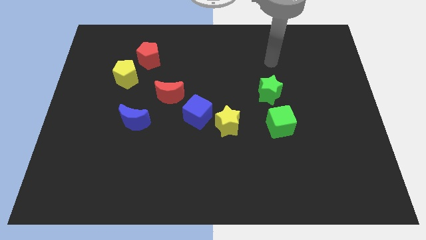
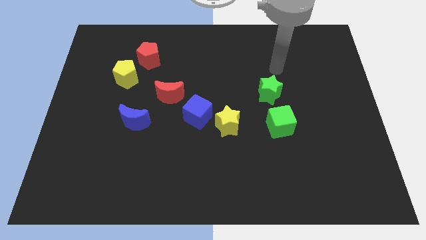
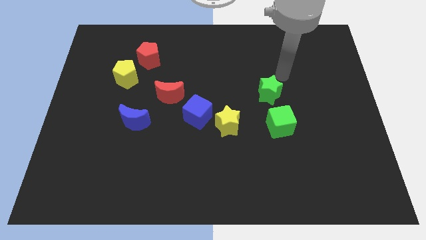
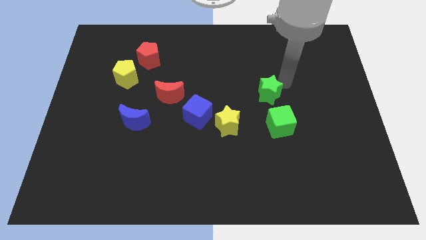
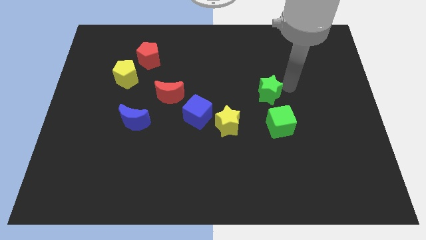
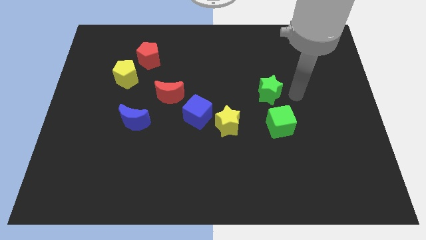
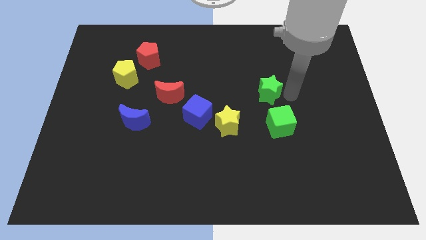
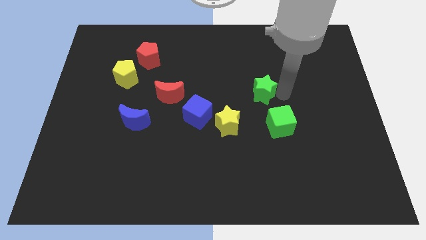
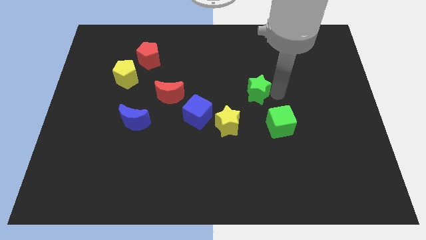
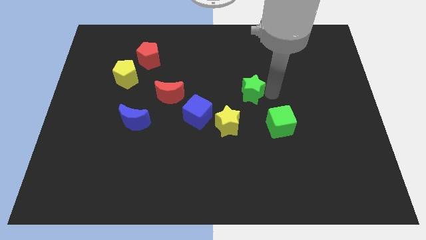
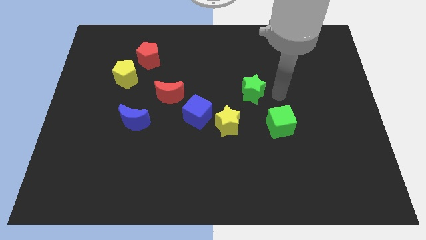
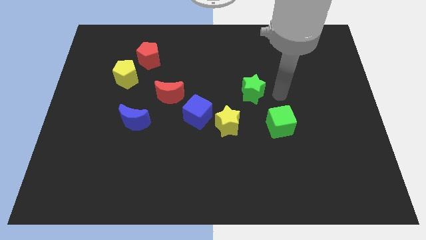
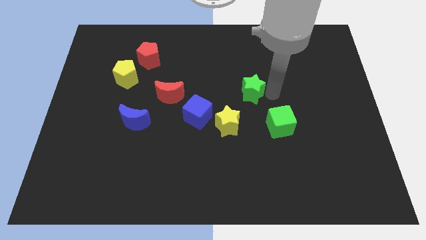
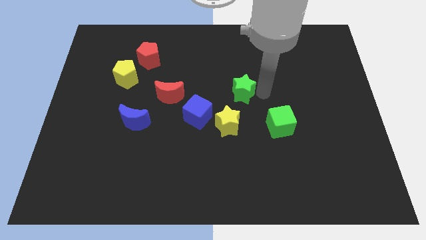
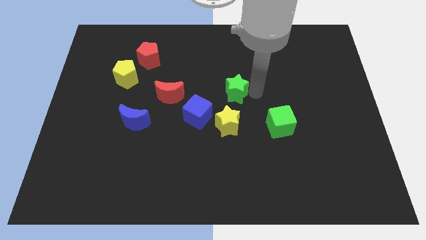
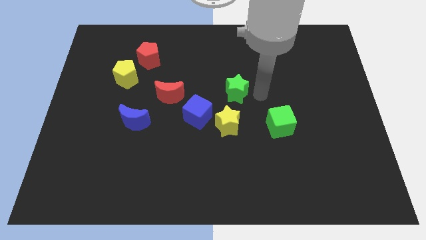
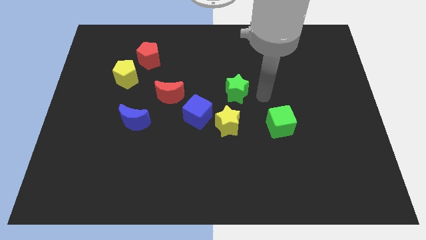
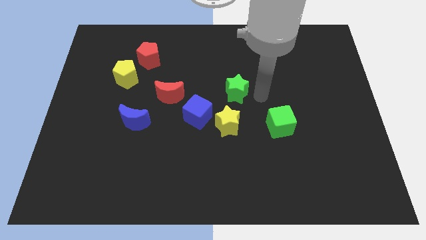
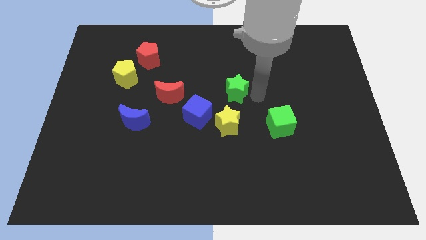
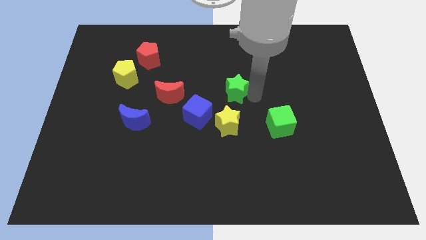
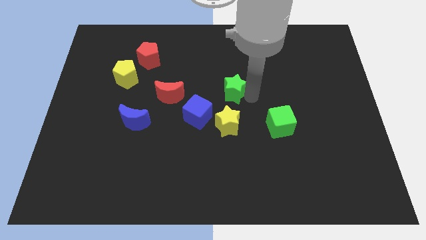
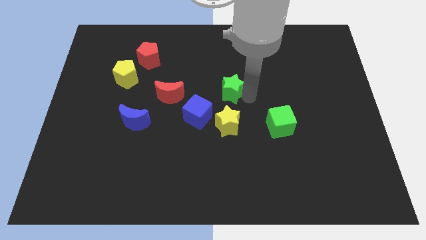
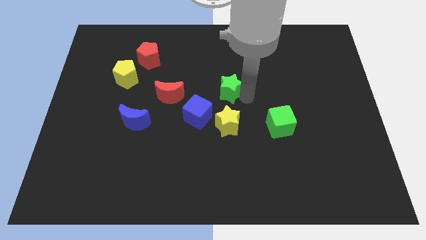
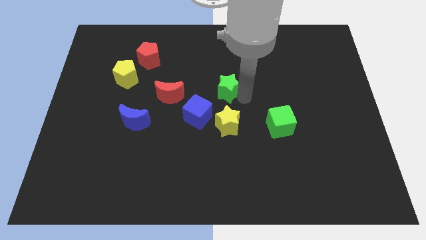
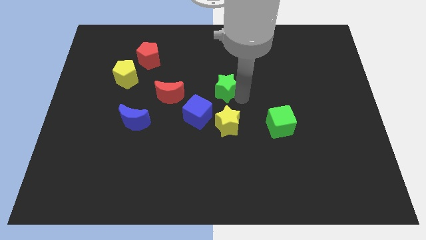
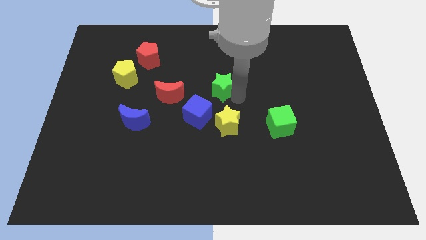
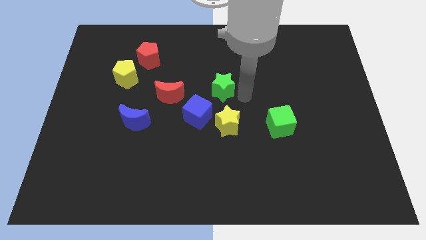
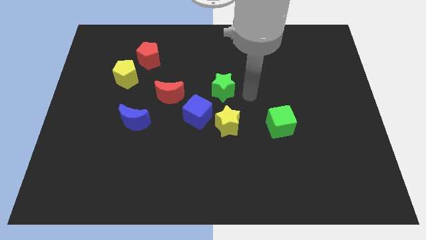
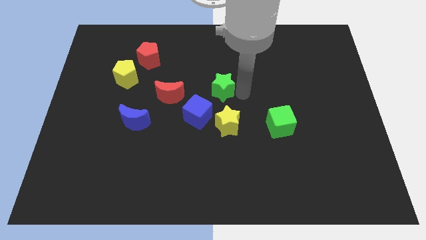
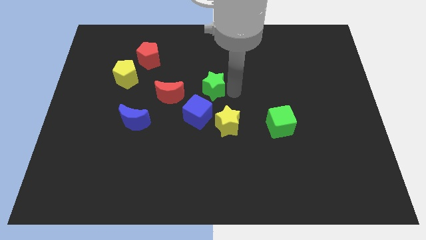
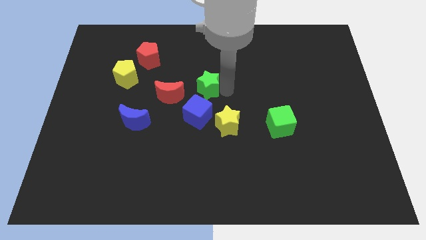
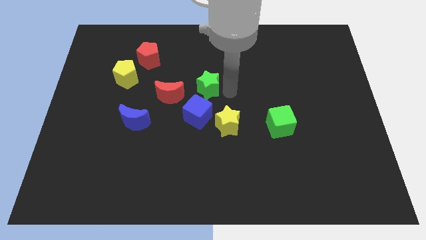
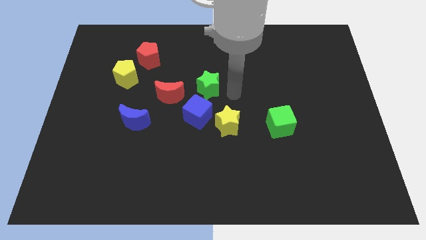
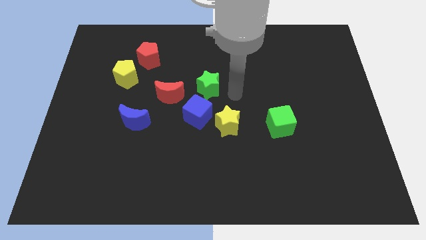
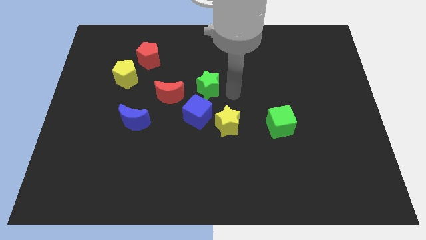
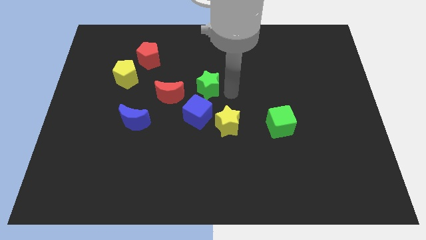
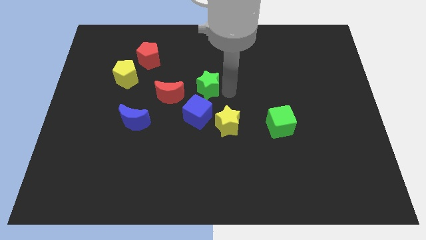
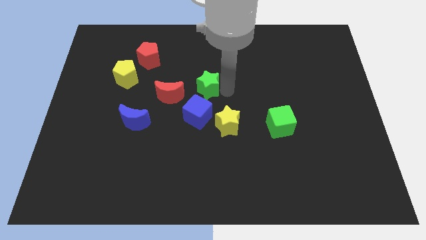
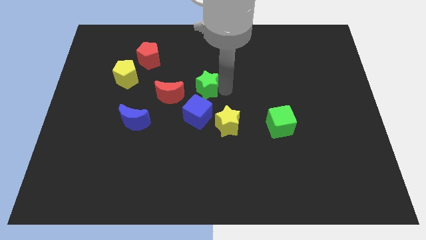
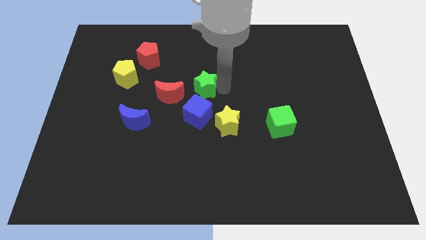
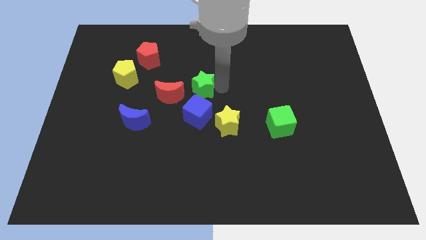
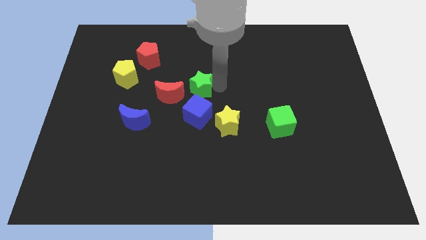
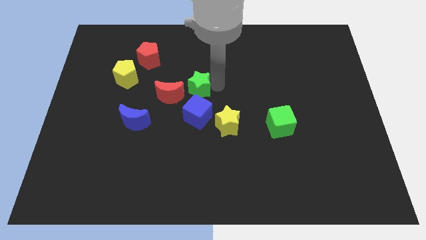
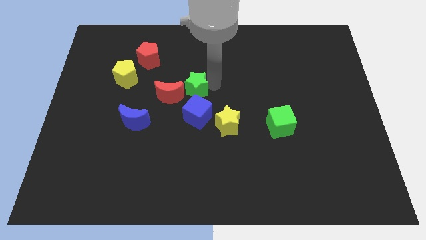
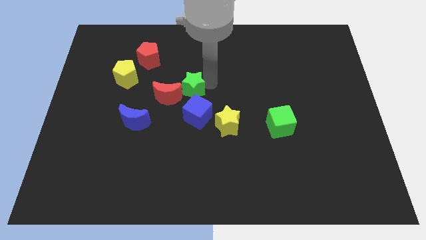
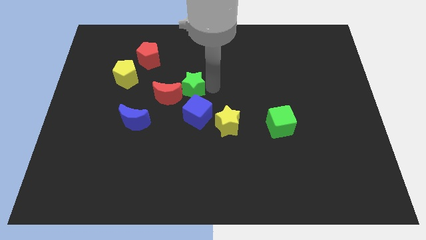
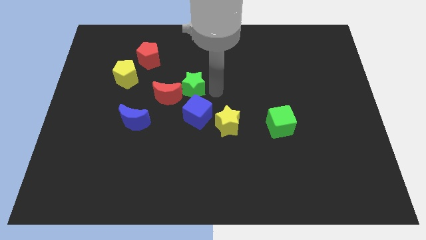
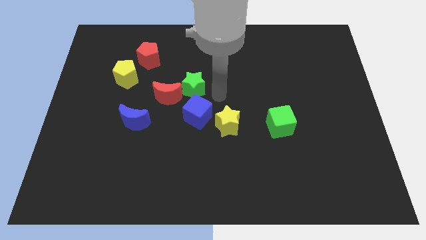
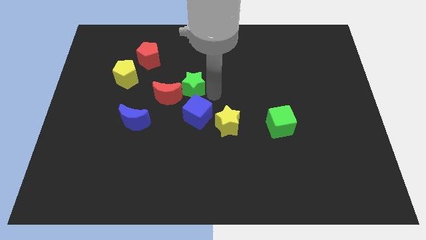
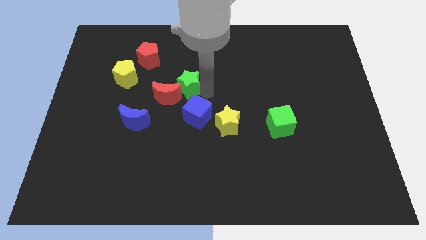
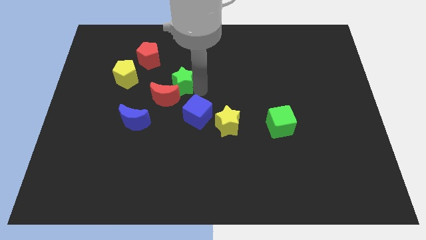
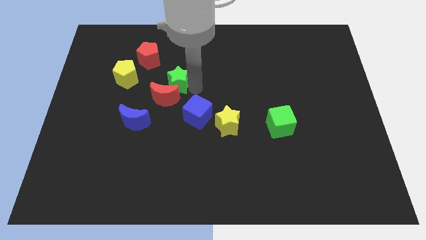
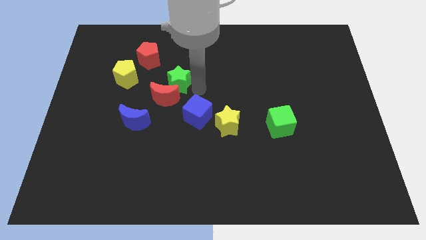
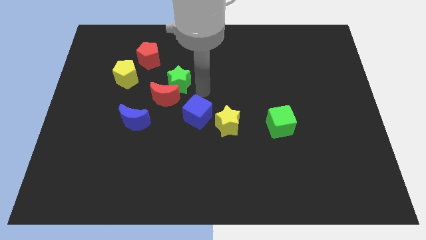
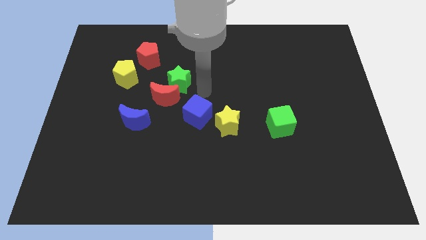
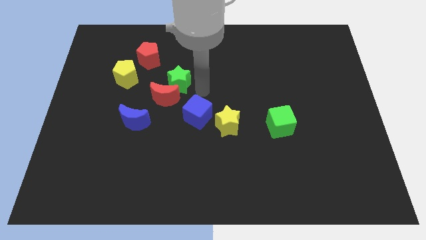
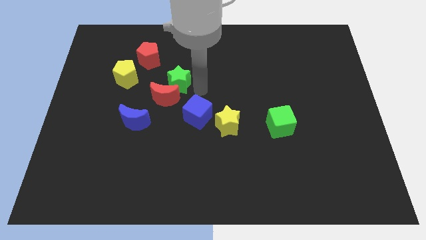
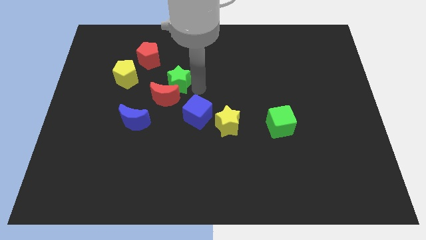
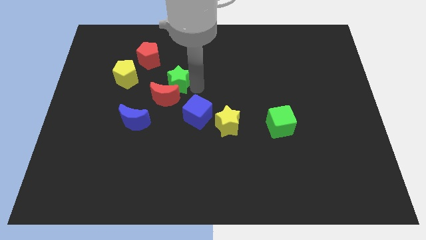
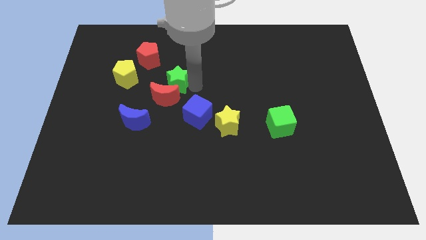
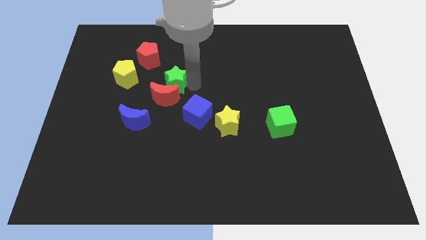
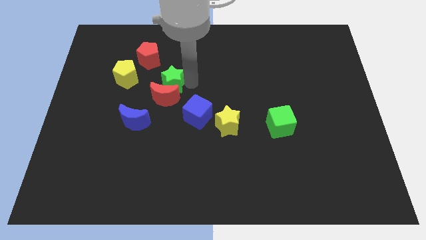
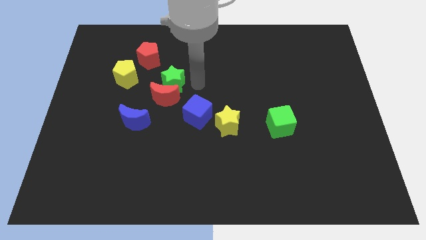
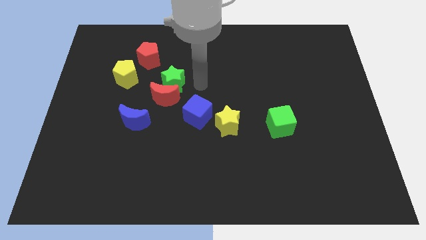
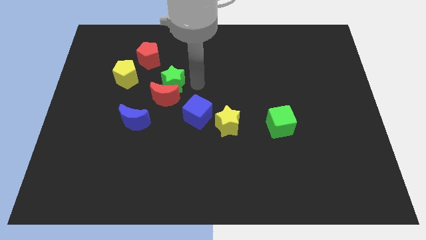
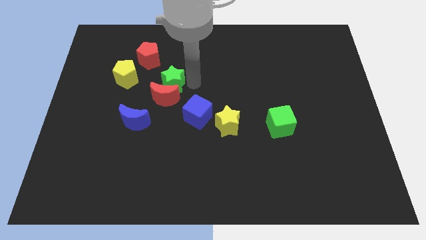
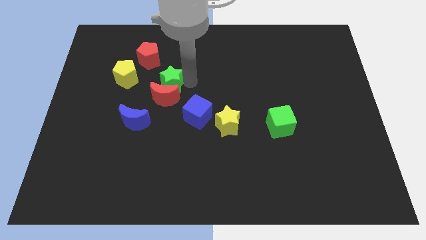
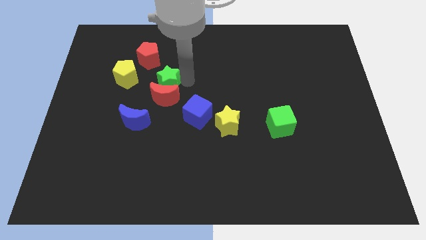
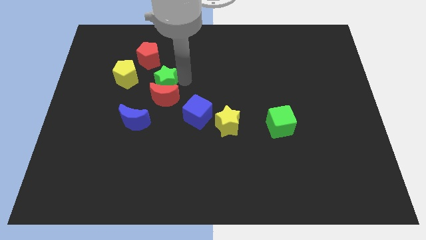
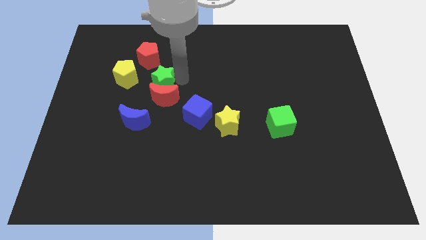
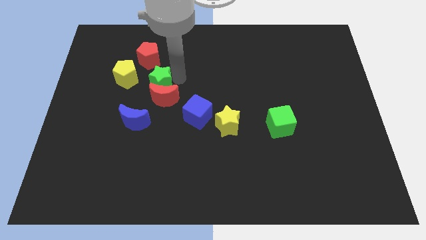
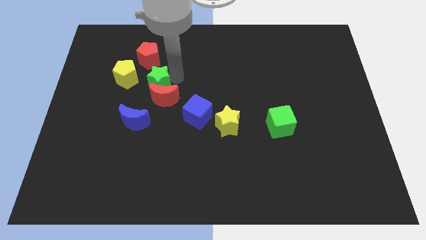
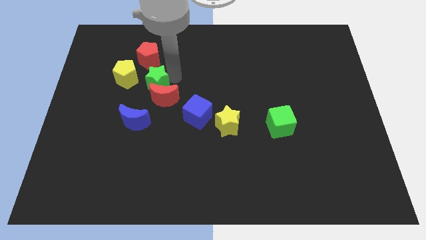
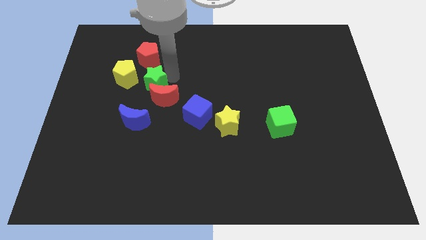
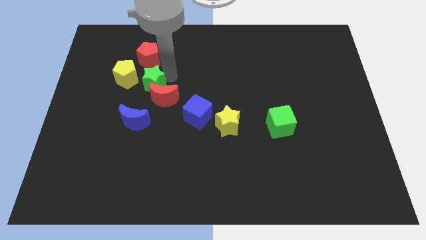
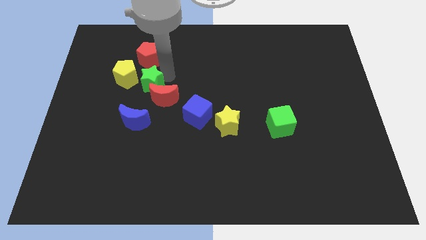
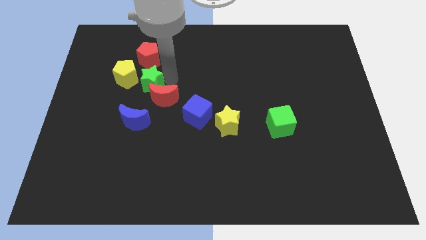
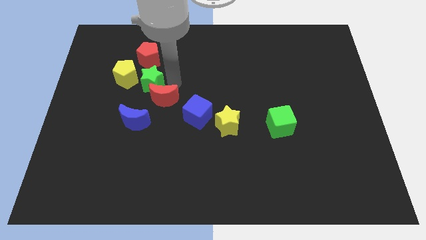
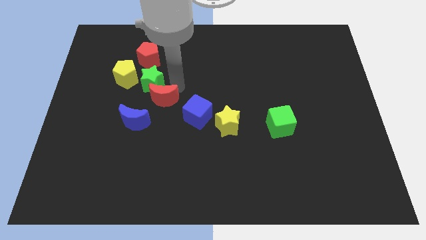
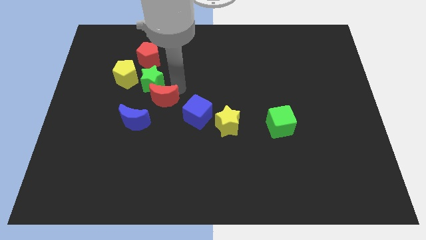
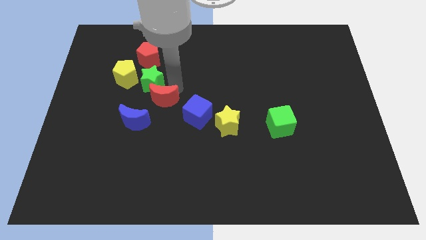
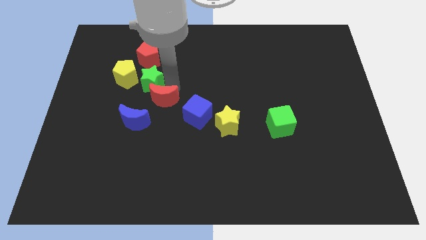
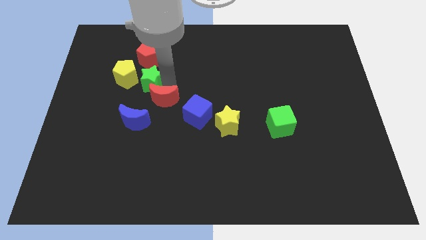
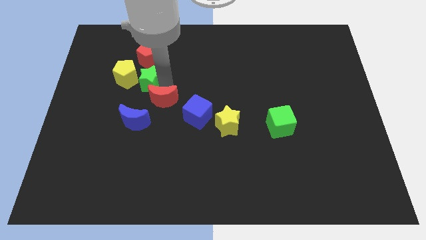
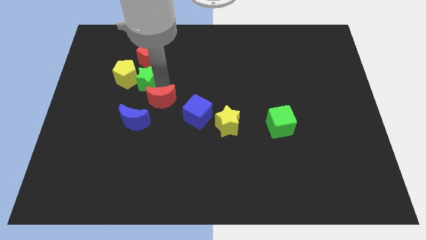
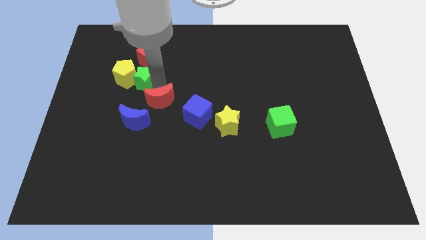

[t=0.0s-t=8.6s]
slide the green star close to the yellow pentagon
